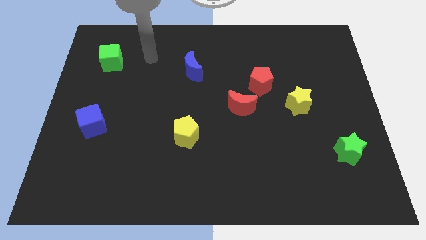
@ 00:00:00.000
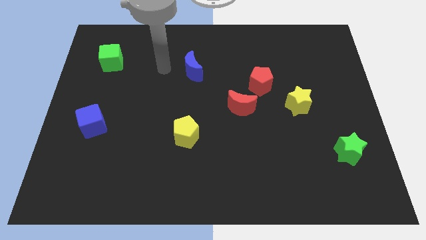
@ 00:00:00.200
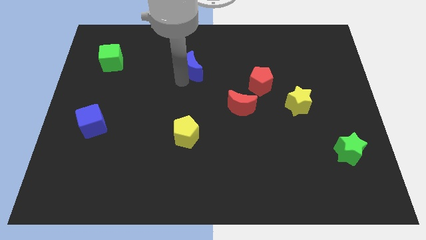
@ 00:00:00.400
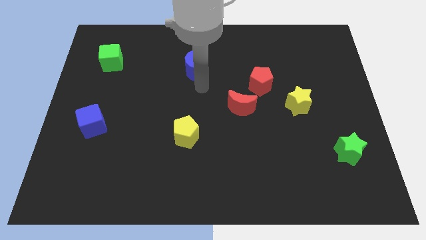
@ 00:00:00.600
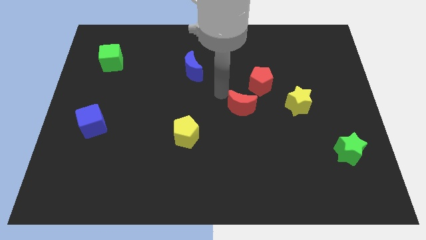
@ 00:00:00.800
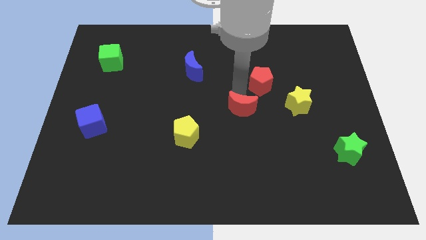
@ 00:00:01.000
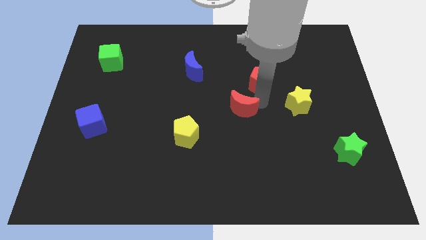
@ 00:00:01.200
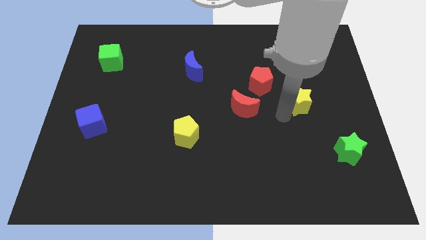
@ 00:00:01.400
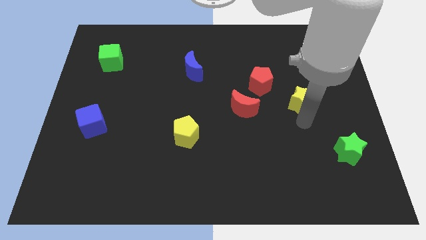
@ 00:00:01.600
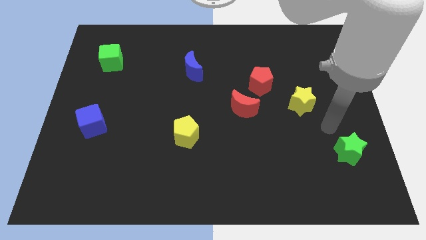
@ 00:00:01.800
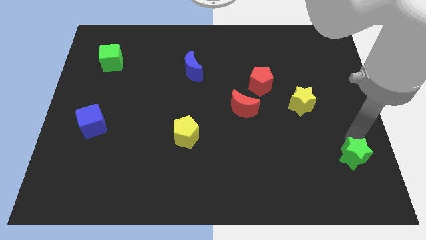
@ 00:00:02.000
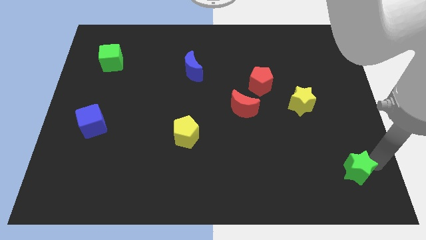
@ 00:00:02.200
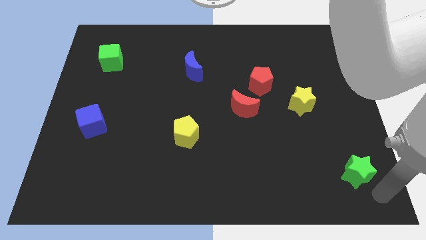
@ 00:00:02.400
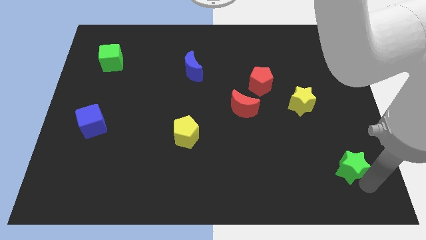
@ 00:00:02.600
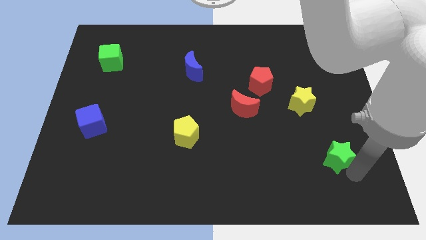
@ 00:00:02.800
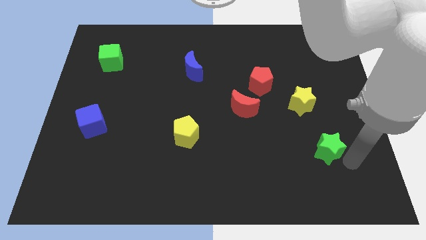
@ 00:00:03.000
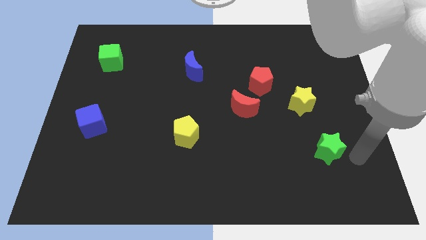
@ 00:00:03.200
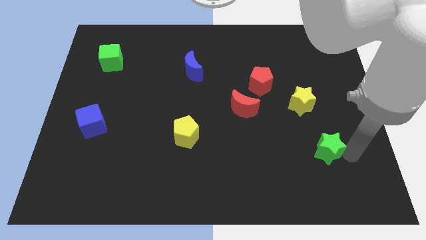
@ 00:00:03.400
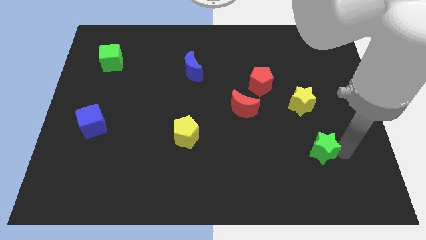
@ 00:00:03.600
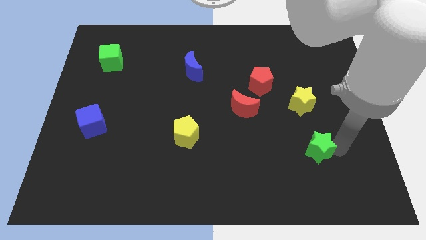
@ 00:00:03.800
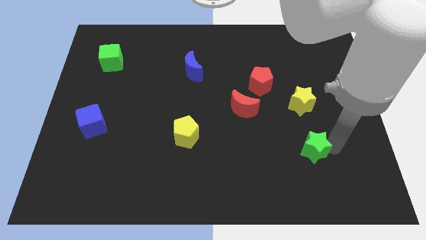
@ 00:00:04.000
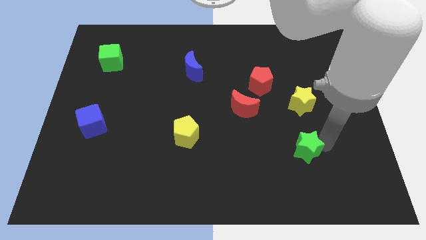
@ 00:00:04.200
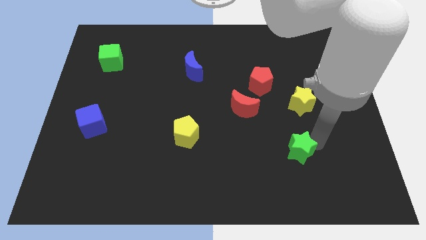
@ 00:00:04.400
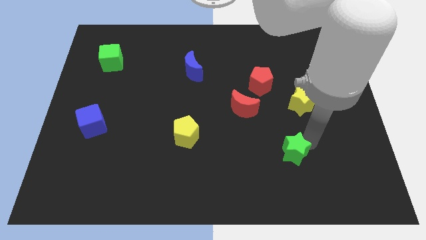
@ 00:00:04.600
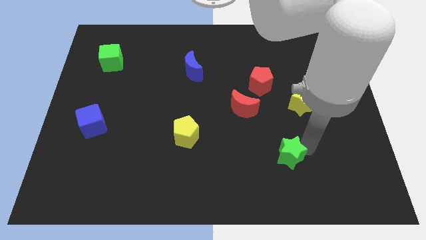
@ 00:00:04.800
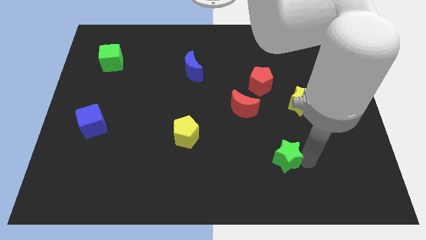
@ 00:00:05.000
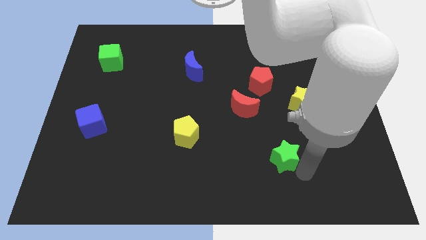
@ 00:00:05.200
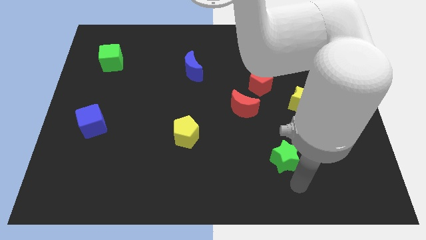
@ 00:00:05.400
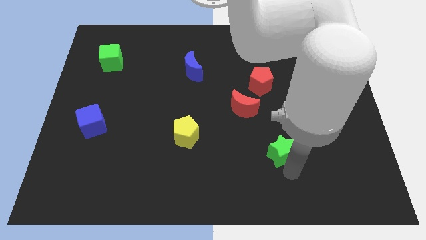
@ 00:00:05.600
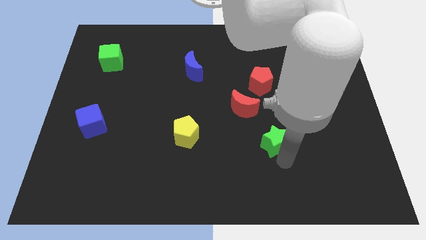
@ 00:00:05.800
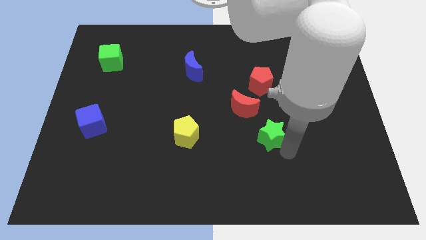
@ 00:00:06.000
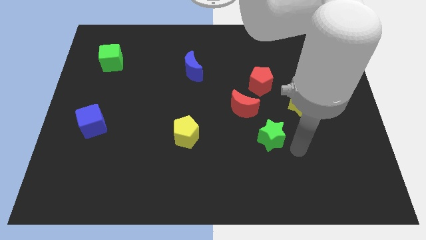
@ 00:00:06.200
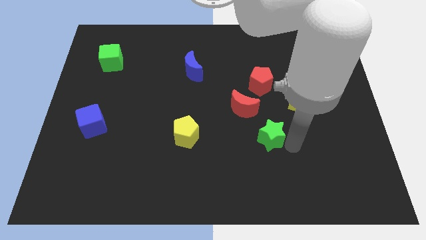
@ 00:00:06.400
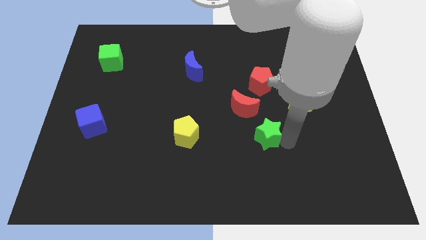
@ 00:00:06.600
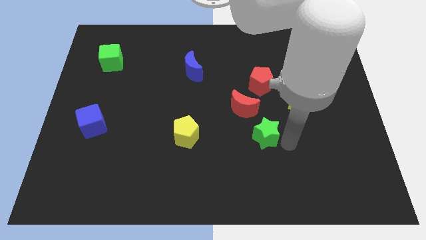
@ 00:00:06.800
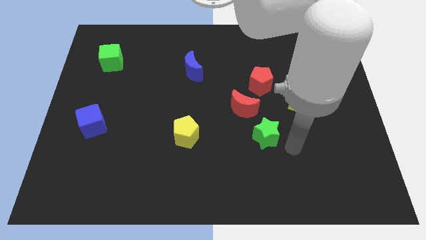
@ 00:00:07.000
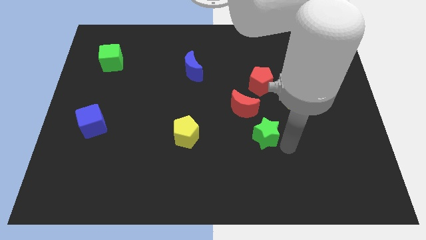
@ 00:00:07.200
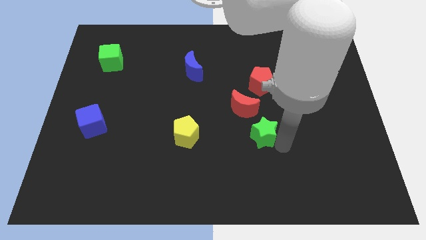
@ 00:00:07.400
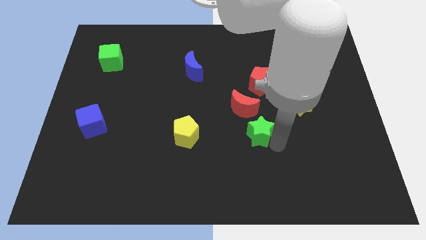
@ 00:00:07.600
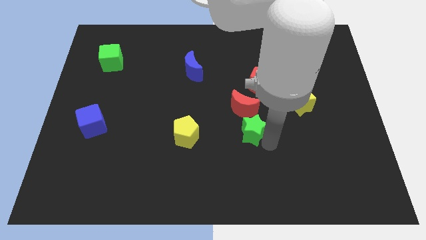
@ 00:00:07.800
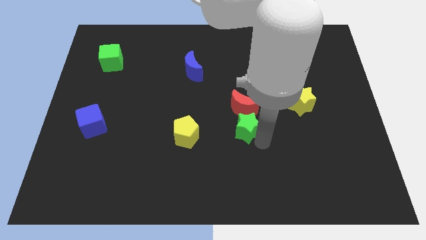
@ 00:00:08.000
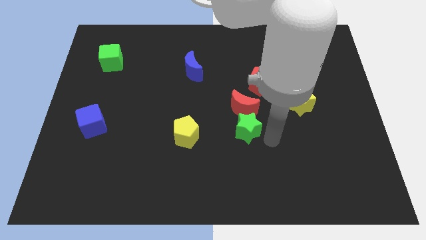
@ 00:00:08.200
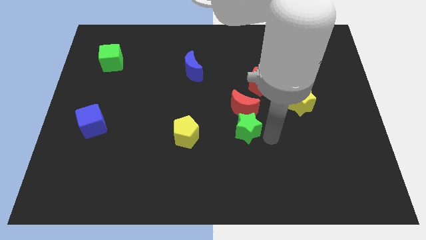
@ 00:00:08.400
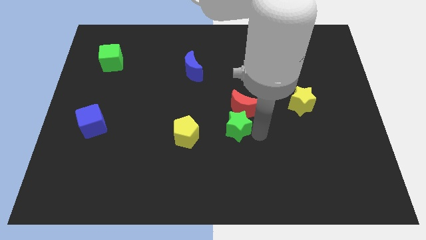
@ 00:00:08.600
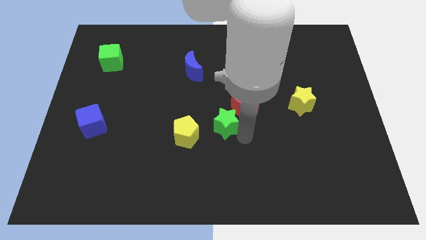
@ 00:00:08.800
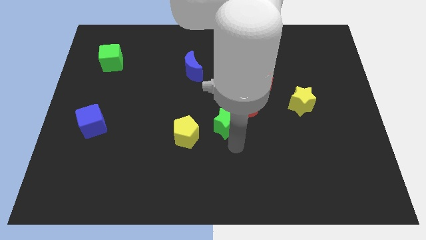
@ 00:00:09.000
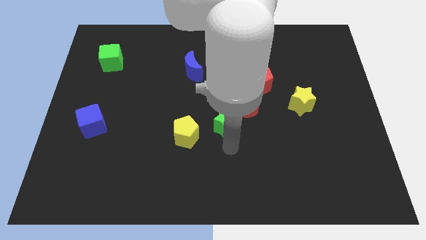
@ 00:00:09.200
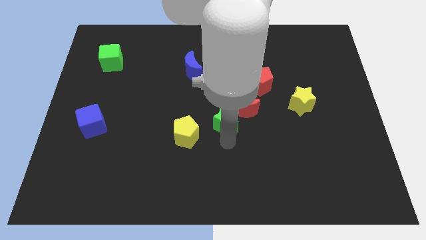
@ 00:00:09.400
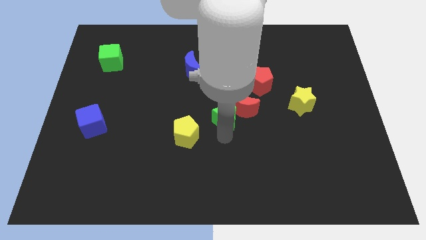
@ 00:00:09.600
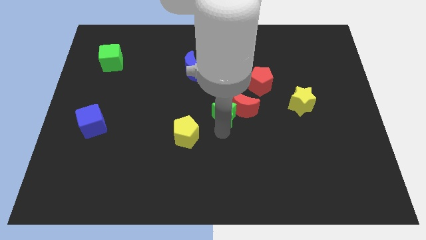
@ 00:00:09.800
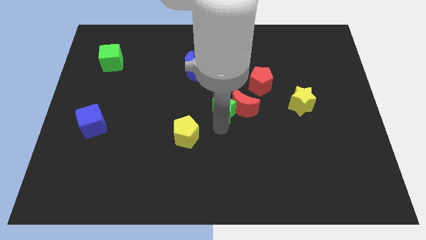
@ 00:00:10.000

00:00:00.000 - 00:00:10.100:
push the green star upwards and to the left

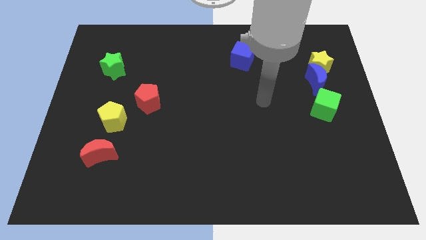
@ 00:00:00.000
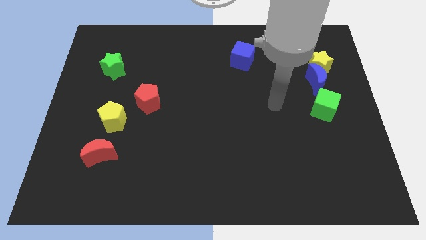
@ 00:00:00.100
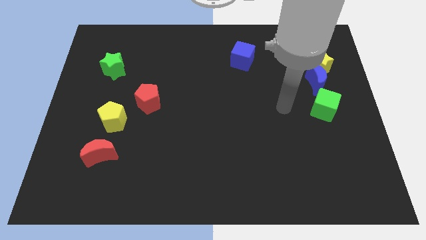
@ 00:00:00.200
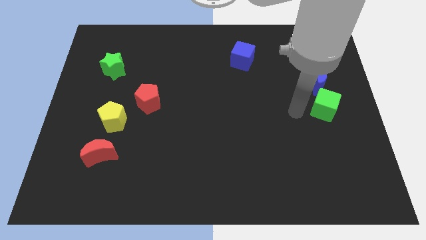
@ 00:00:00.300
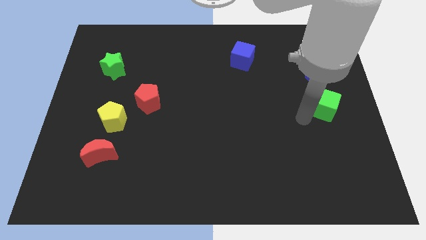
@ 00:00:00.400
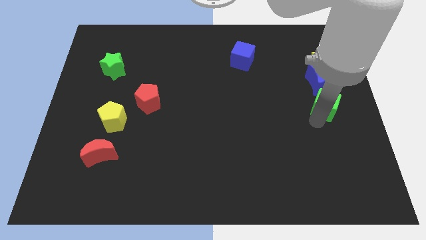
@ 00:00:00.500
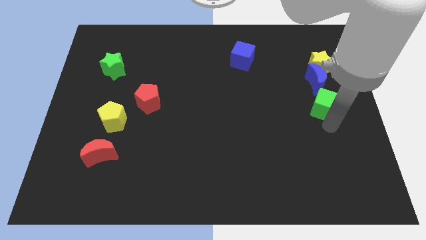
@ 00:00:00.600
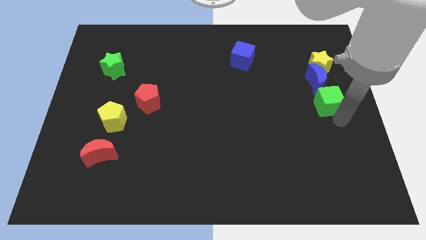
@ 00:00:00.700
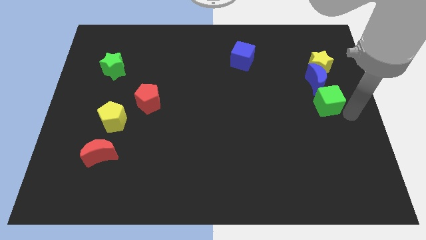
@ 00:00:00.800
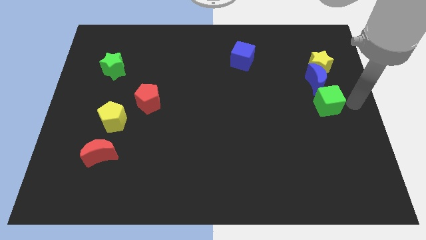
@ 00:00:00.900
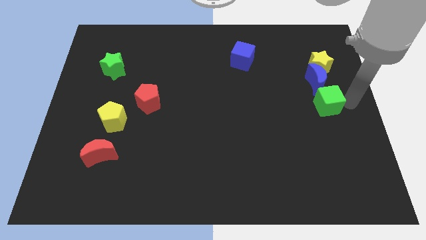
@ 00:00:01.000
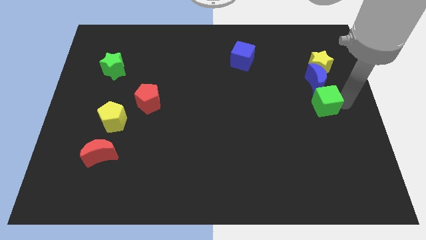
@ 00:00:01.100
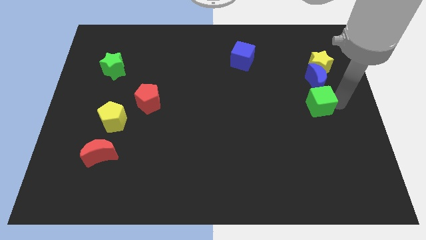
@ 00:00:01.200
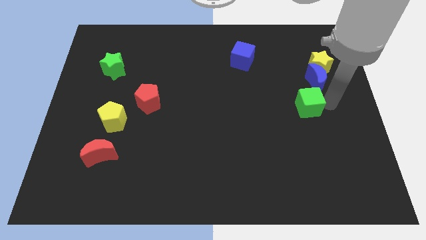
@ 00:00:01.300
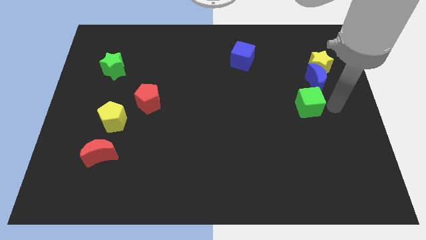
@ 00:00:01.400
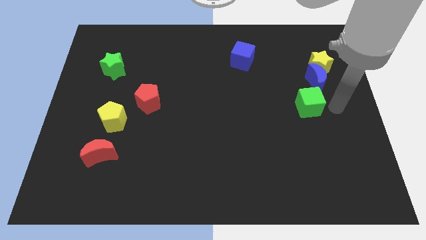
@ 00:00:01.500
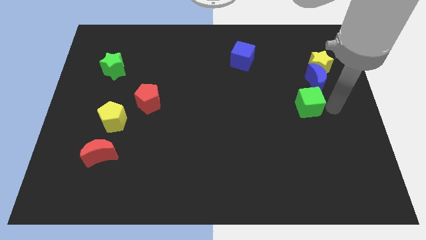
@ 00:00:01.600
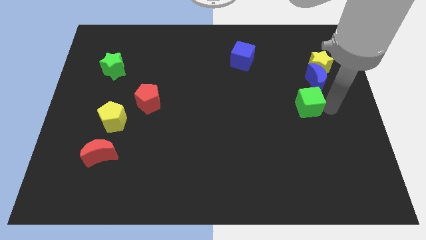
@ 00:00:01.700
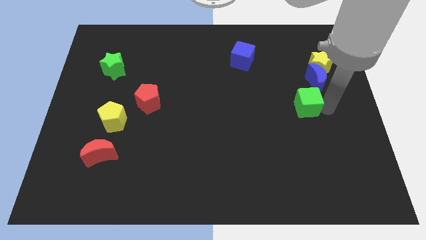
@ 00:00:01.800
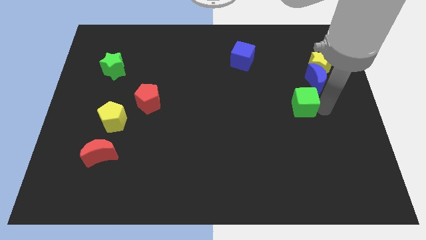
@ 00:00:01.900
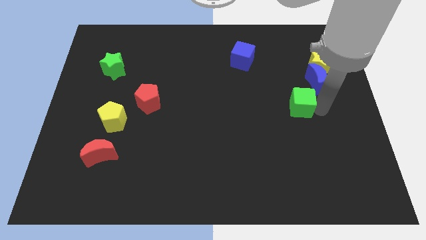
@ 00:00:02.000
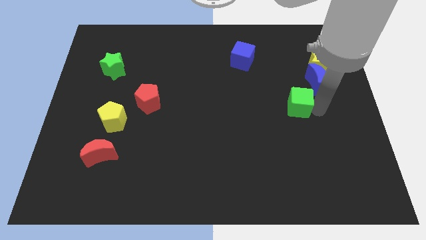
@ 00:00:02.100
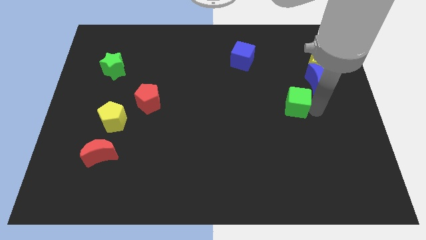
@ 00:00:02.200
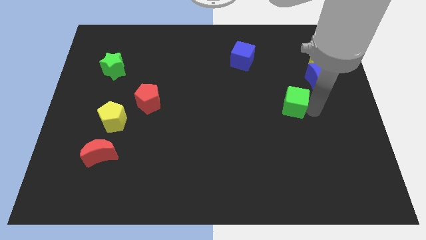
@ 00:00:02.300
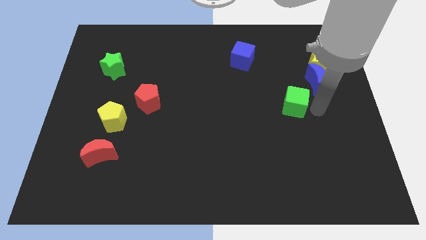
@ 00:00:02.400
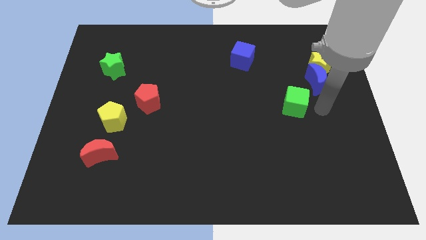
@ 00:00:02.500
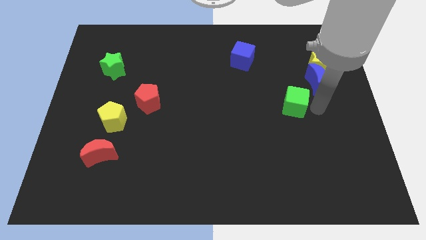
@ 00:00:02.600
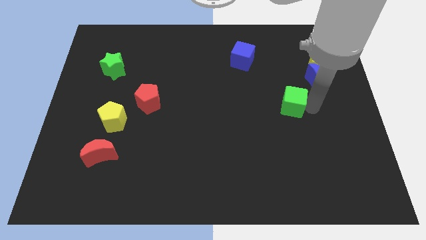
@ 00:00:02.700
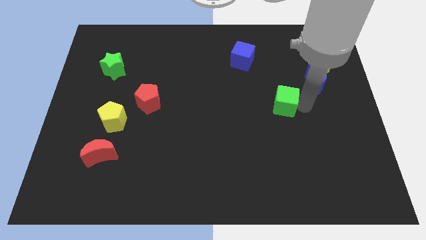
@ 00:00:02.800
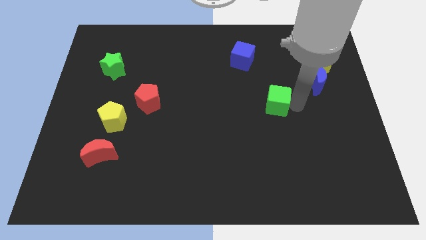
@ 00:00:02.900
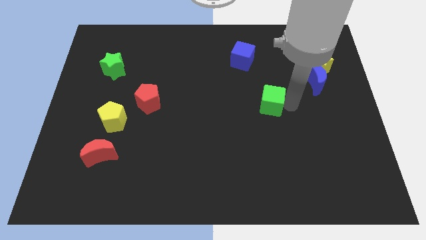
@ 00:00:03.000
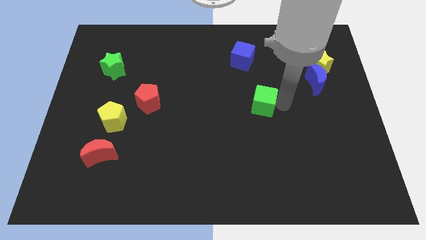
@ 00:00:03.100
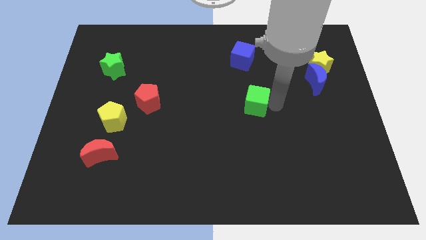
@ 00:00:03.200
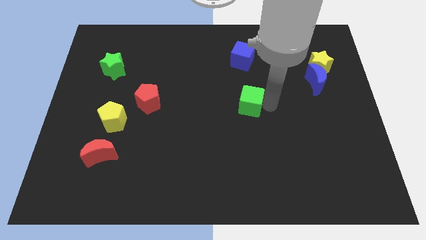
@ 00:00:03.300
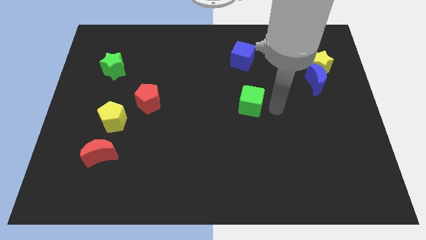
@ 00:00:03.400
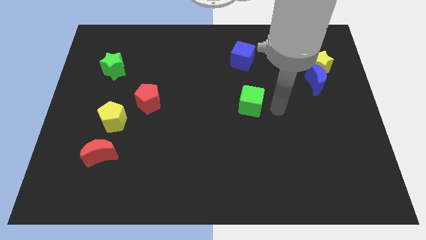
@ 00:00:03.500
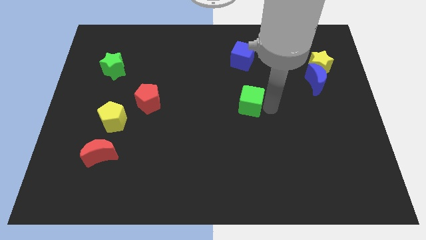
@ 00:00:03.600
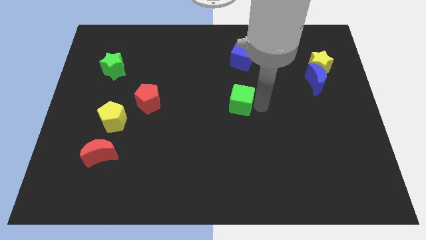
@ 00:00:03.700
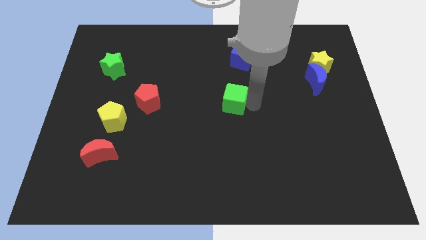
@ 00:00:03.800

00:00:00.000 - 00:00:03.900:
slide the green cube to the left
